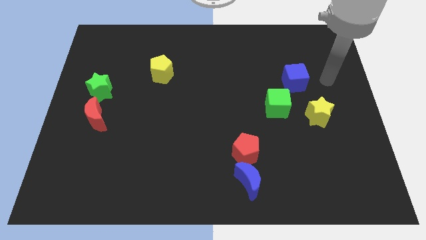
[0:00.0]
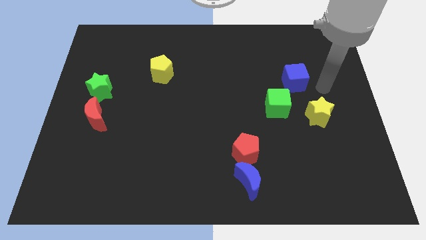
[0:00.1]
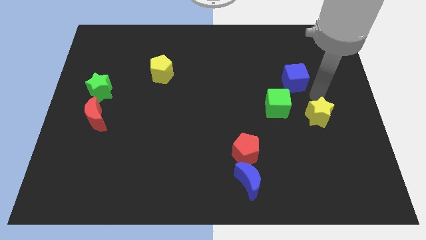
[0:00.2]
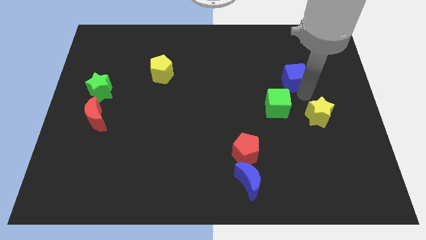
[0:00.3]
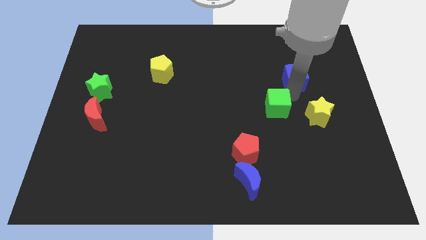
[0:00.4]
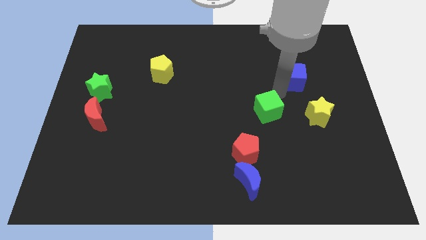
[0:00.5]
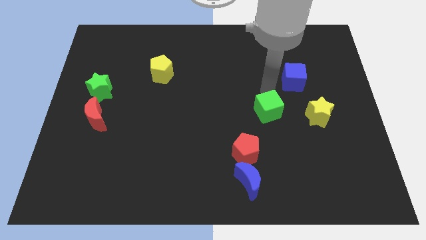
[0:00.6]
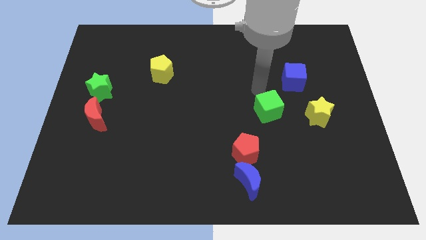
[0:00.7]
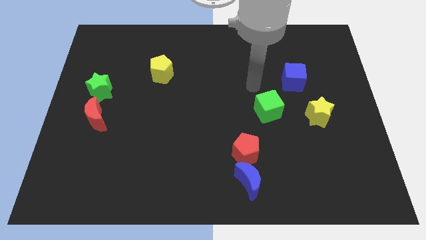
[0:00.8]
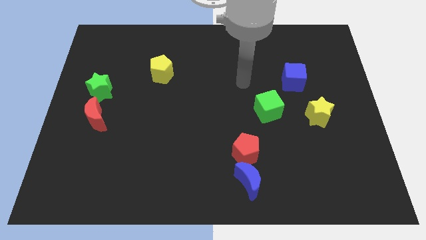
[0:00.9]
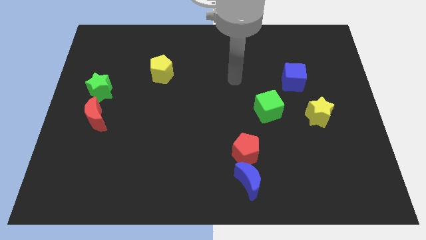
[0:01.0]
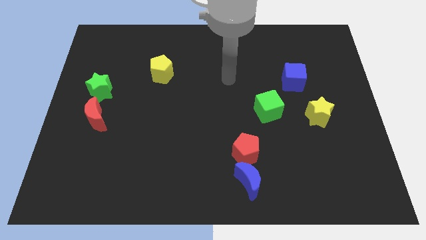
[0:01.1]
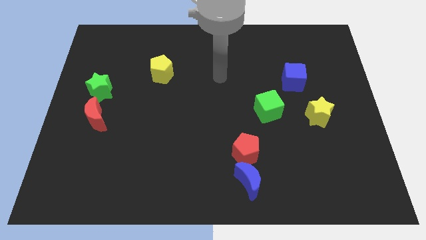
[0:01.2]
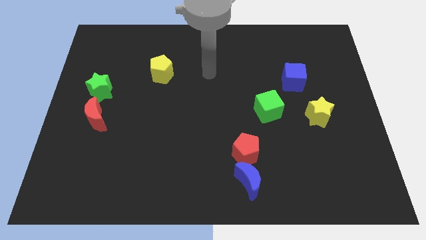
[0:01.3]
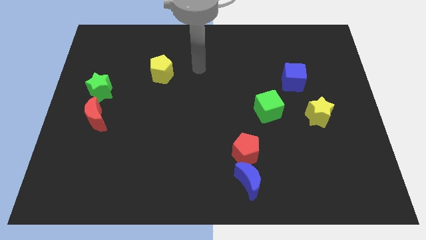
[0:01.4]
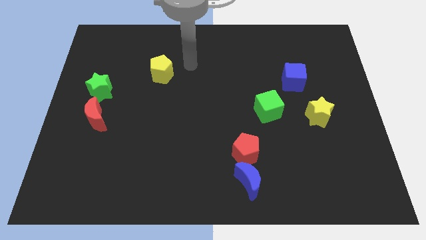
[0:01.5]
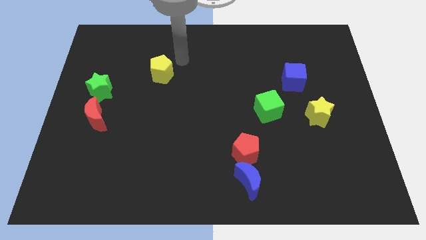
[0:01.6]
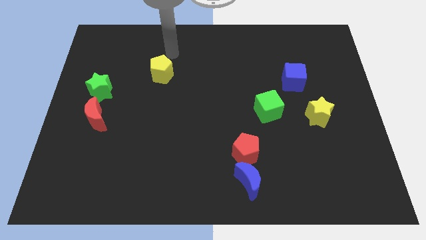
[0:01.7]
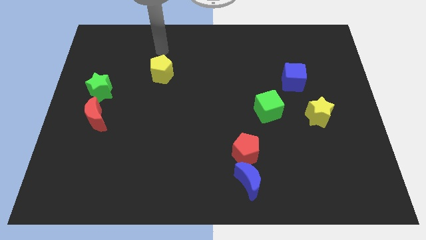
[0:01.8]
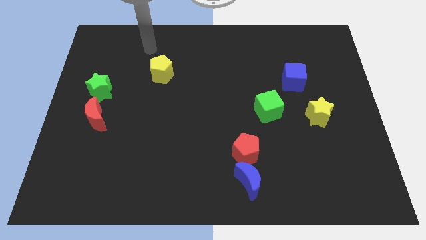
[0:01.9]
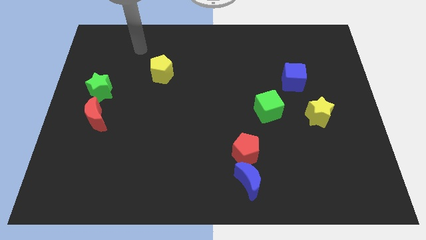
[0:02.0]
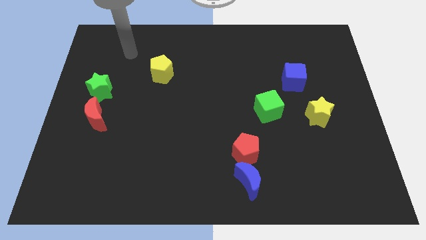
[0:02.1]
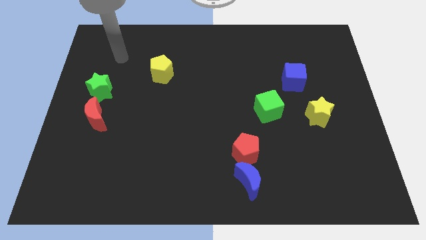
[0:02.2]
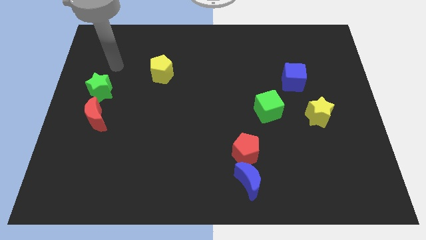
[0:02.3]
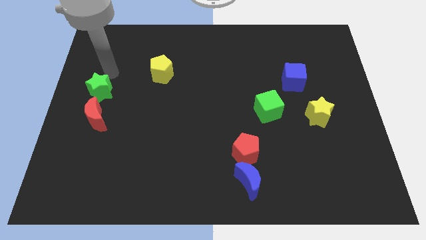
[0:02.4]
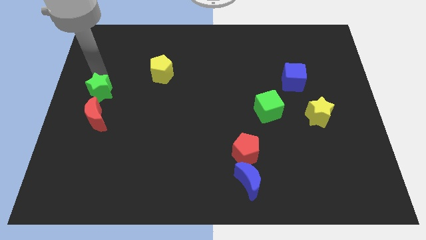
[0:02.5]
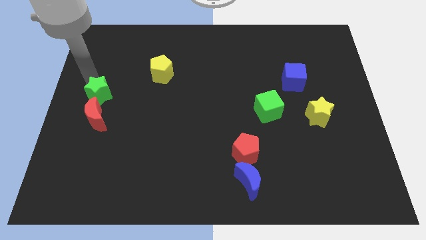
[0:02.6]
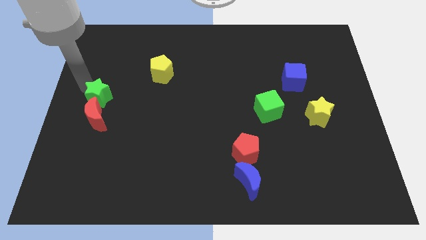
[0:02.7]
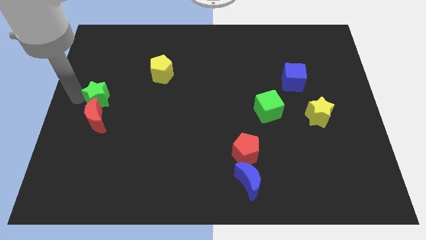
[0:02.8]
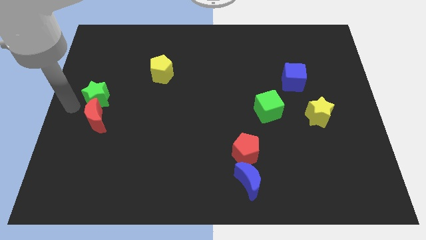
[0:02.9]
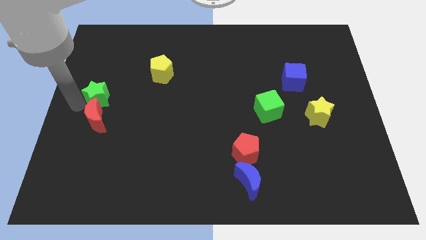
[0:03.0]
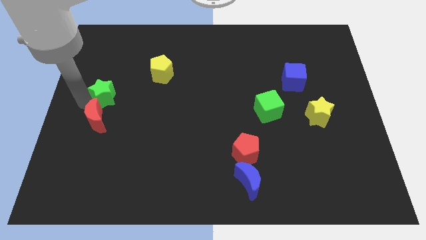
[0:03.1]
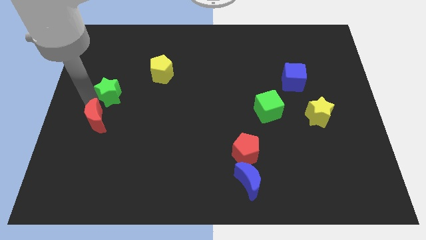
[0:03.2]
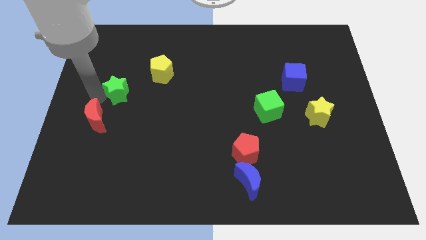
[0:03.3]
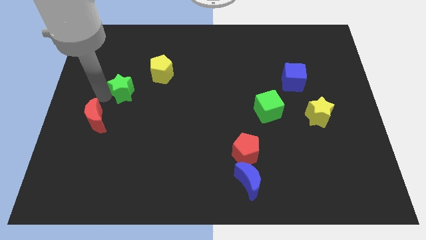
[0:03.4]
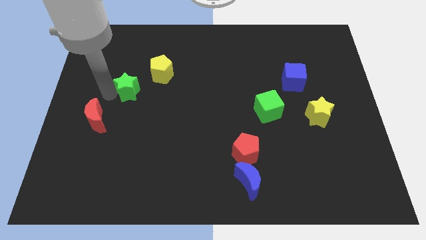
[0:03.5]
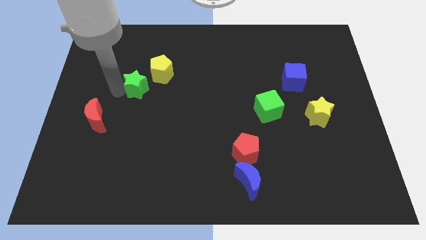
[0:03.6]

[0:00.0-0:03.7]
push the green star slightly right

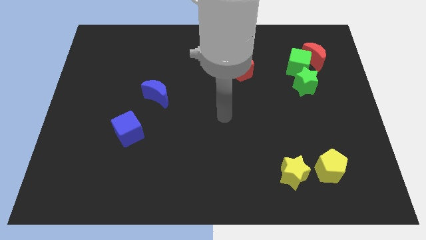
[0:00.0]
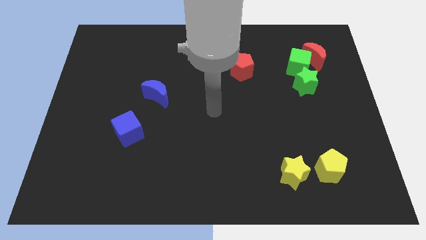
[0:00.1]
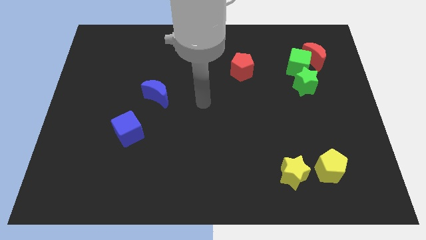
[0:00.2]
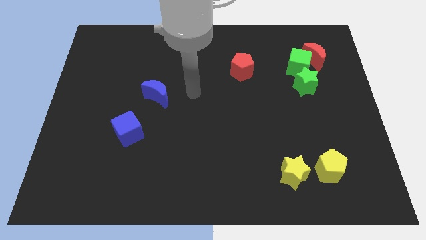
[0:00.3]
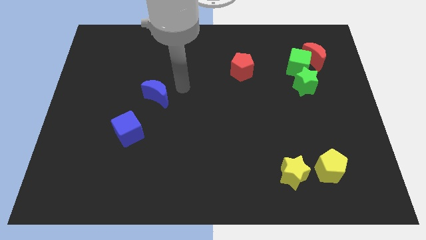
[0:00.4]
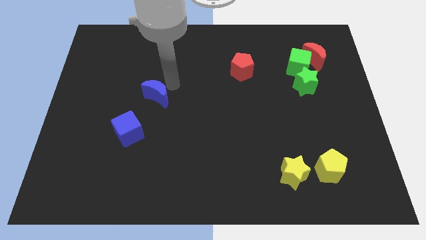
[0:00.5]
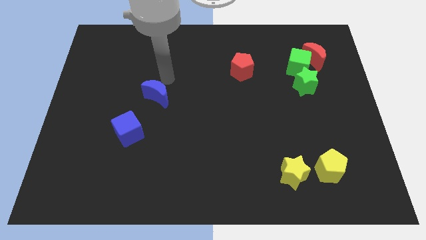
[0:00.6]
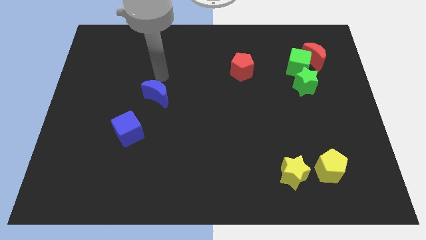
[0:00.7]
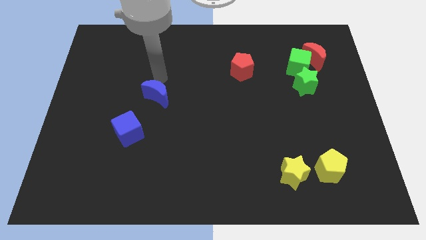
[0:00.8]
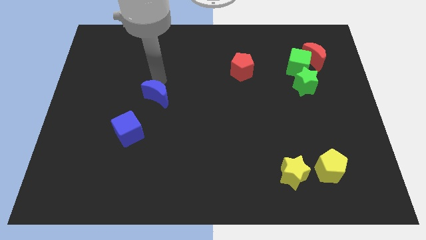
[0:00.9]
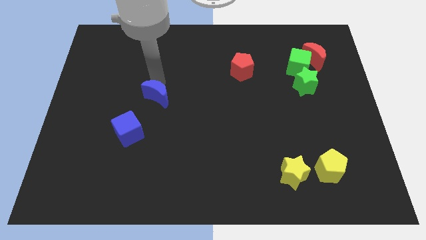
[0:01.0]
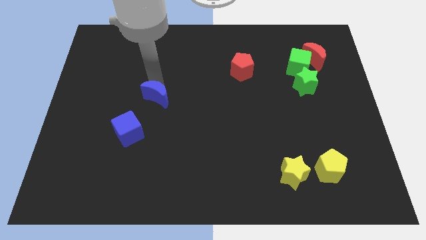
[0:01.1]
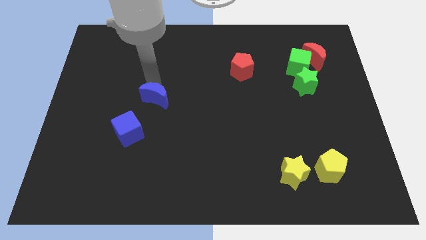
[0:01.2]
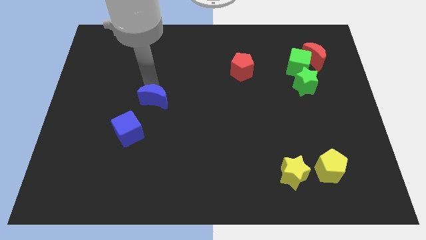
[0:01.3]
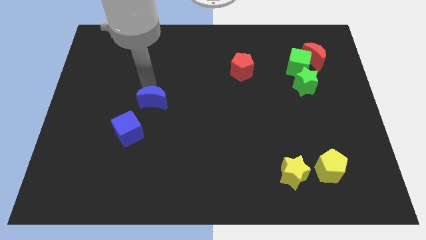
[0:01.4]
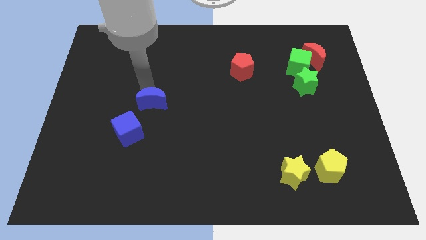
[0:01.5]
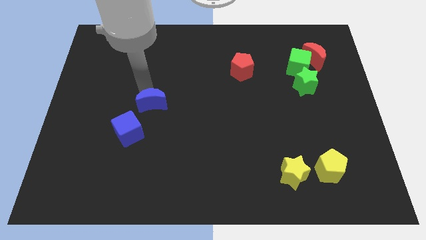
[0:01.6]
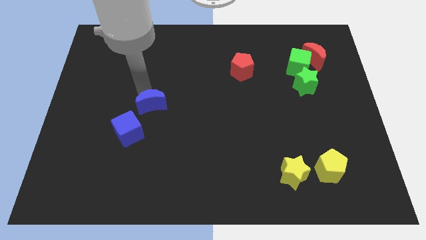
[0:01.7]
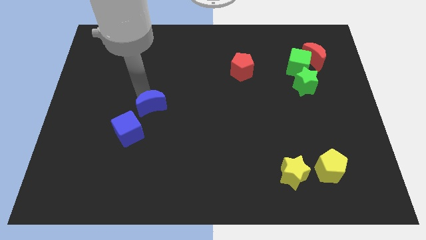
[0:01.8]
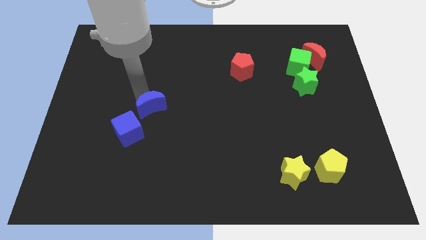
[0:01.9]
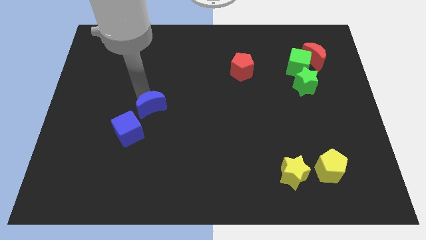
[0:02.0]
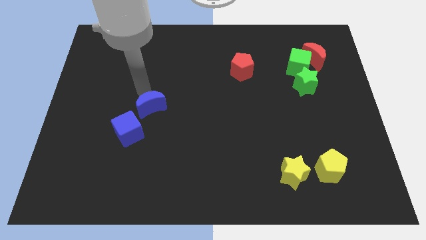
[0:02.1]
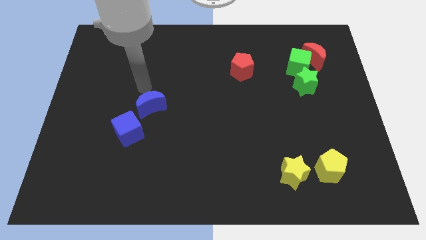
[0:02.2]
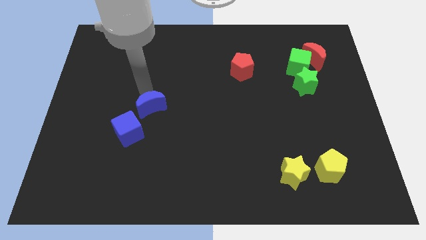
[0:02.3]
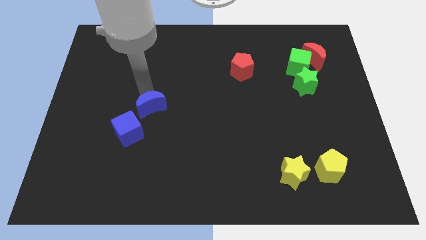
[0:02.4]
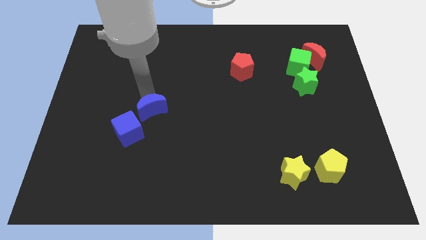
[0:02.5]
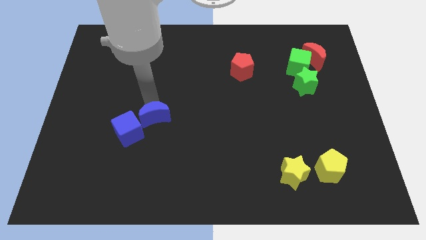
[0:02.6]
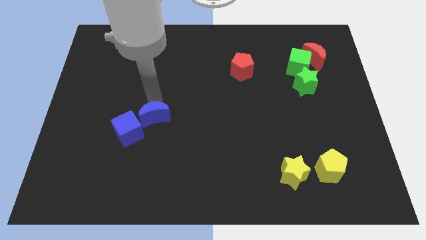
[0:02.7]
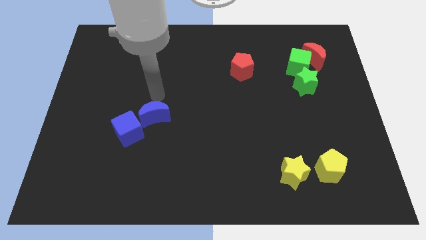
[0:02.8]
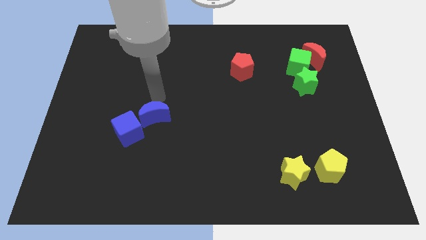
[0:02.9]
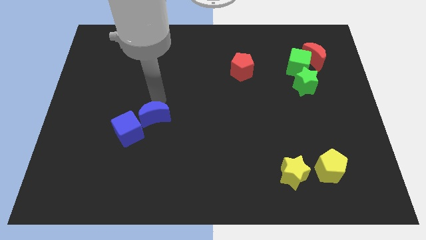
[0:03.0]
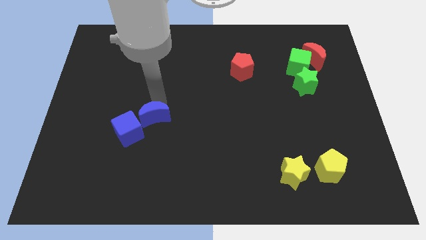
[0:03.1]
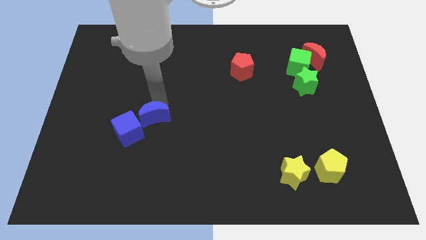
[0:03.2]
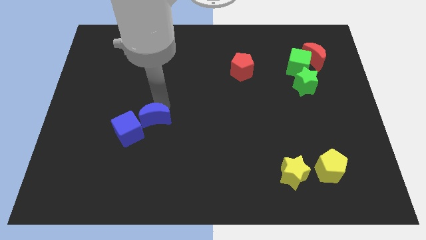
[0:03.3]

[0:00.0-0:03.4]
slightly slide the blue moon downwards

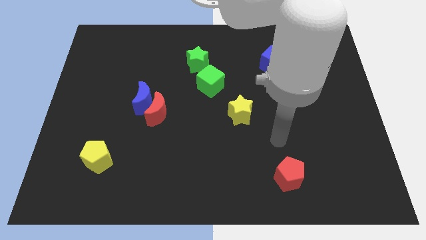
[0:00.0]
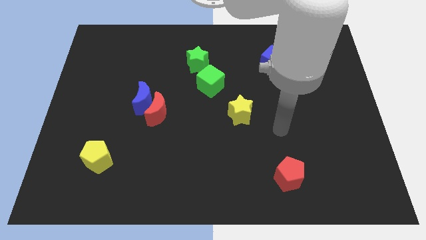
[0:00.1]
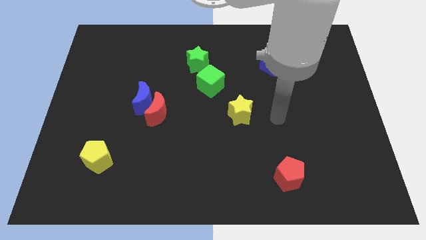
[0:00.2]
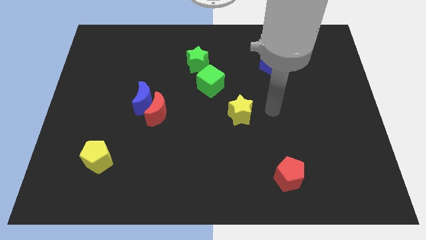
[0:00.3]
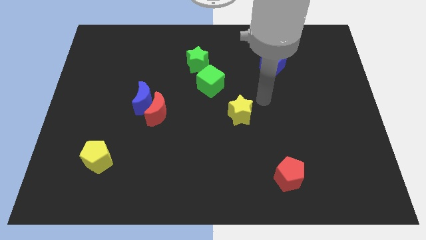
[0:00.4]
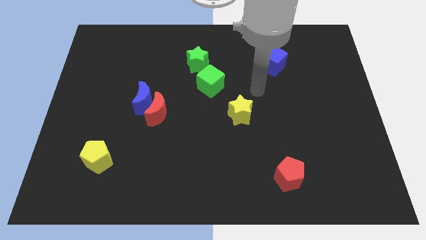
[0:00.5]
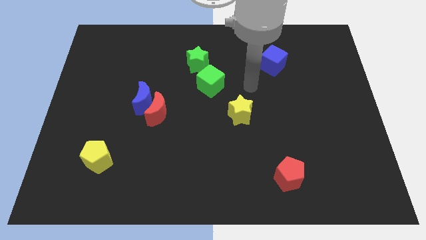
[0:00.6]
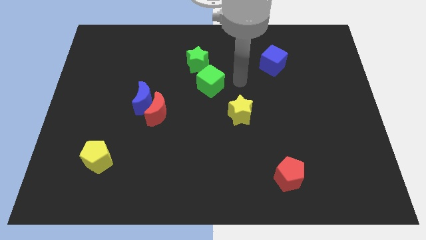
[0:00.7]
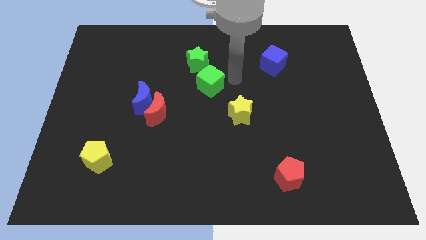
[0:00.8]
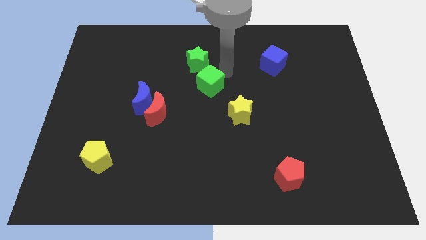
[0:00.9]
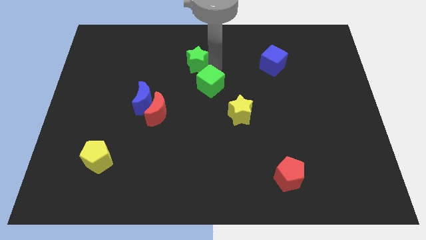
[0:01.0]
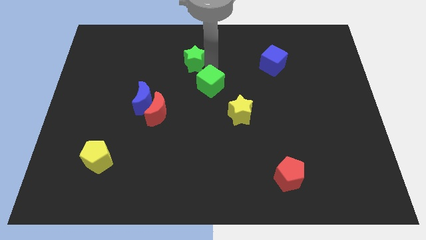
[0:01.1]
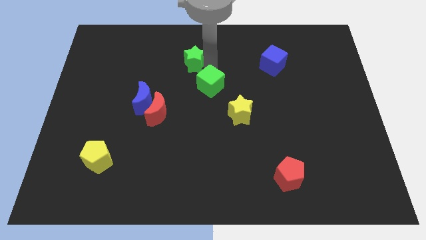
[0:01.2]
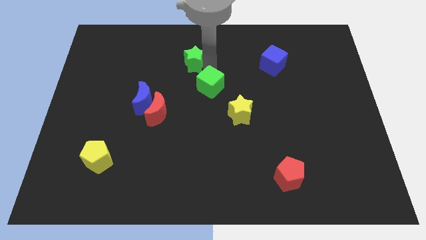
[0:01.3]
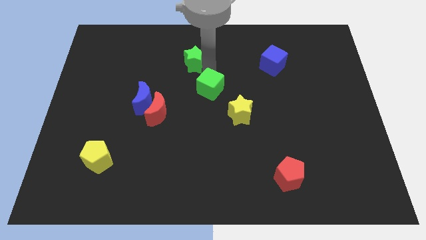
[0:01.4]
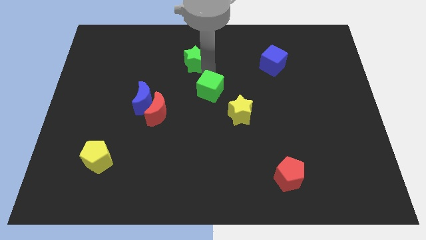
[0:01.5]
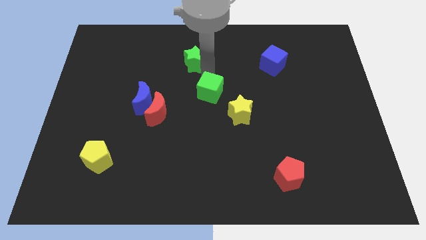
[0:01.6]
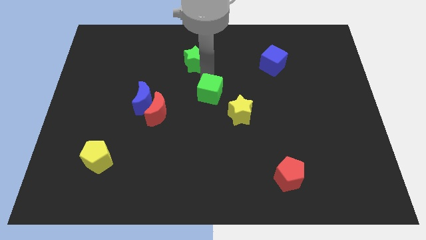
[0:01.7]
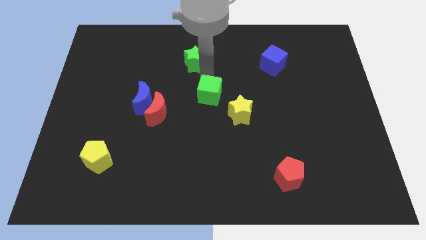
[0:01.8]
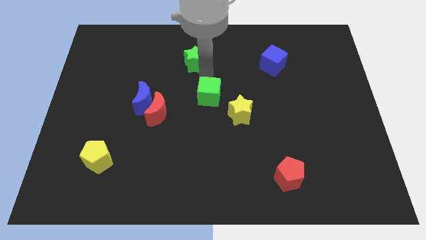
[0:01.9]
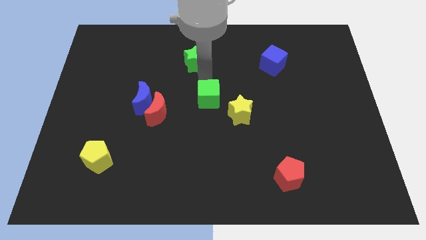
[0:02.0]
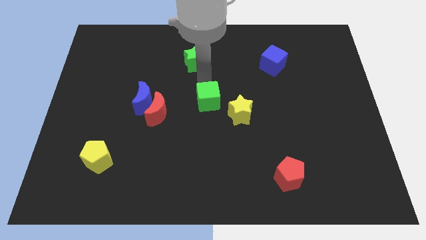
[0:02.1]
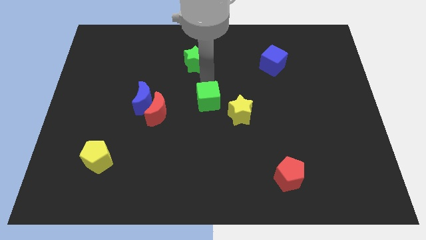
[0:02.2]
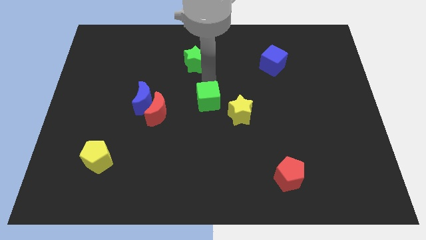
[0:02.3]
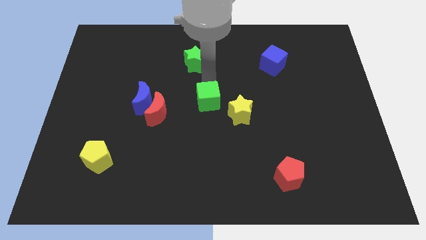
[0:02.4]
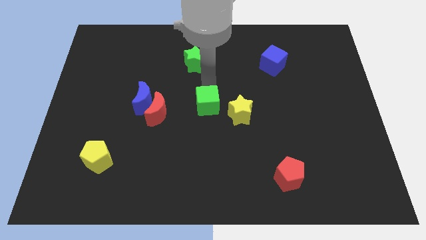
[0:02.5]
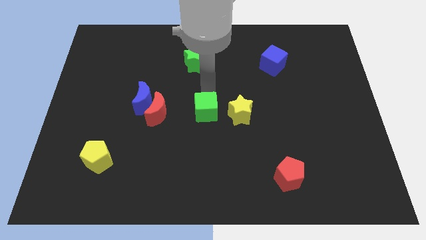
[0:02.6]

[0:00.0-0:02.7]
slightly slide the green cube downwards
